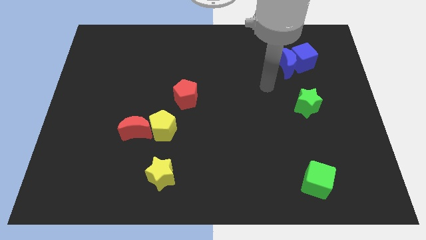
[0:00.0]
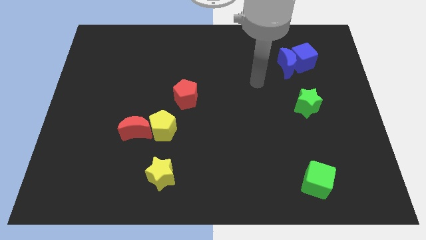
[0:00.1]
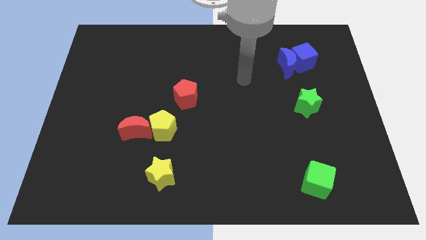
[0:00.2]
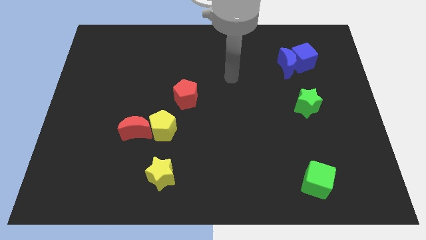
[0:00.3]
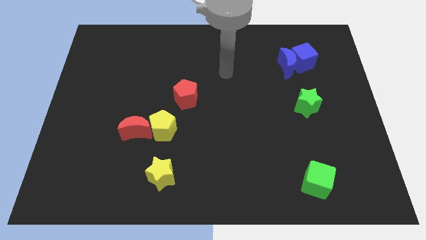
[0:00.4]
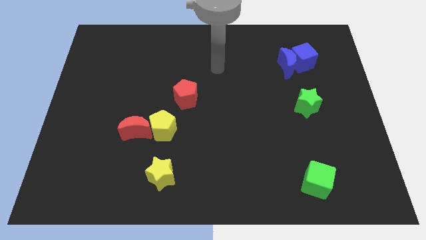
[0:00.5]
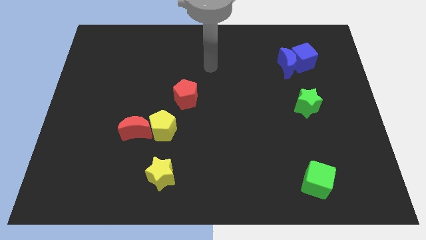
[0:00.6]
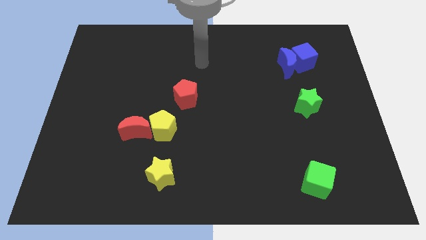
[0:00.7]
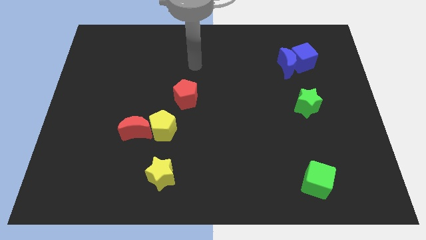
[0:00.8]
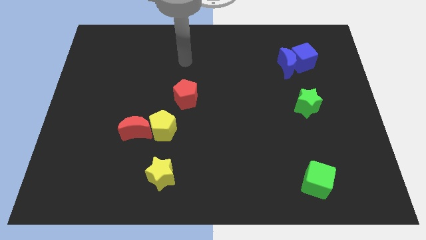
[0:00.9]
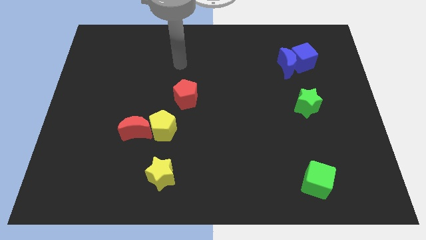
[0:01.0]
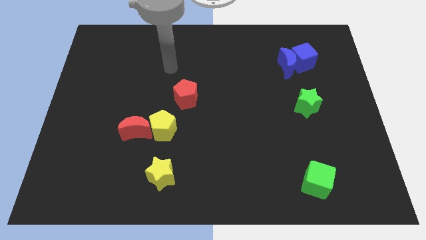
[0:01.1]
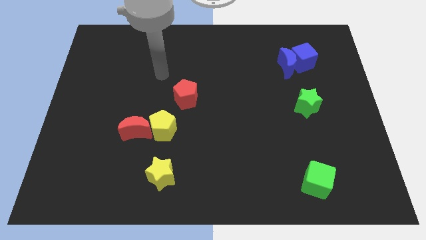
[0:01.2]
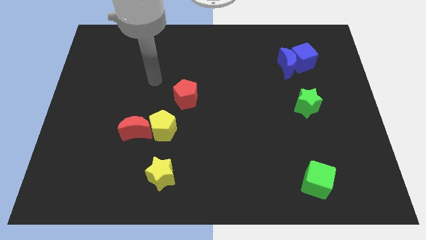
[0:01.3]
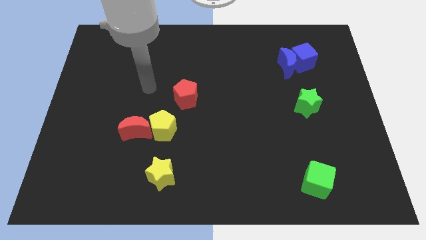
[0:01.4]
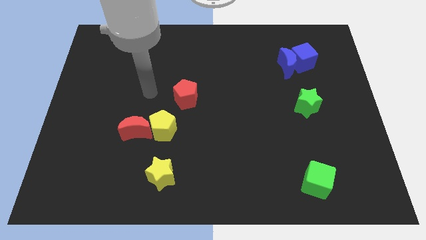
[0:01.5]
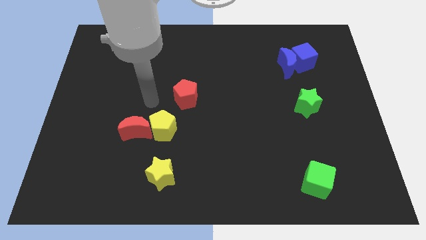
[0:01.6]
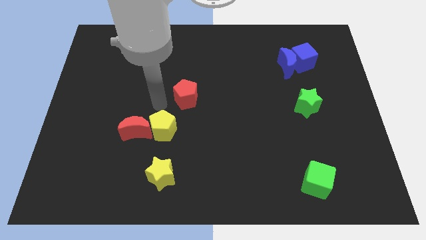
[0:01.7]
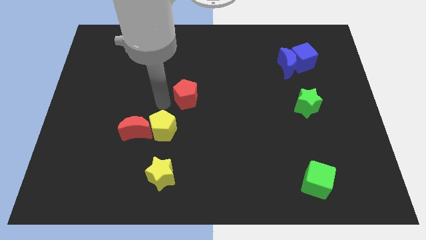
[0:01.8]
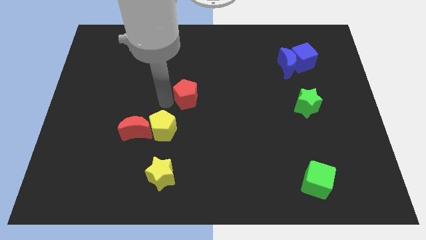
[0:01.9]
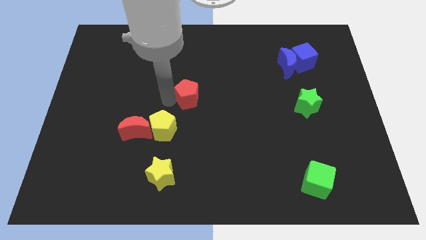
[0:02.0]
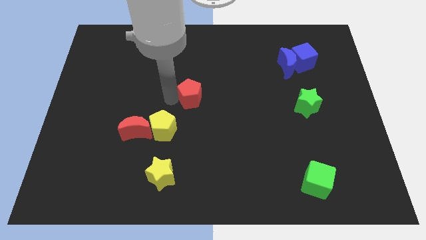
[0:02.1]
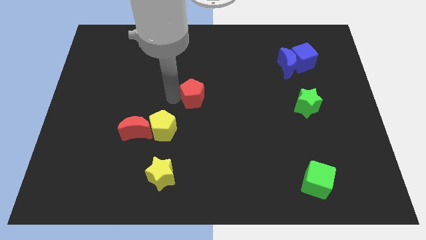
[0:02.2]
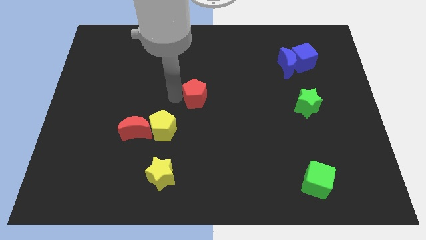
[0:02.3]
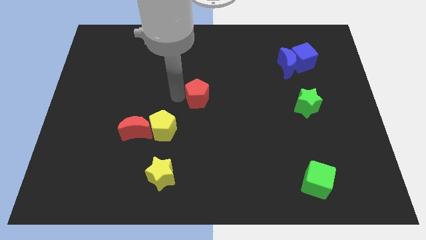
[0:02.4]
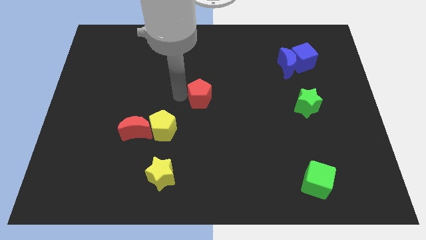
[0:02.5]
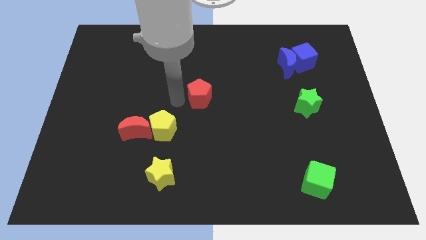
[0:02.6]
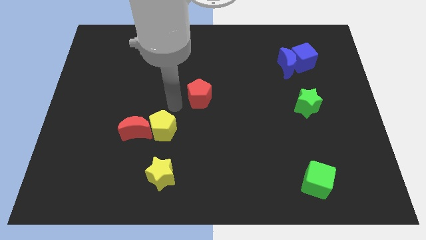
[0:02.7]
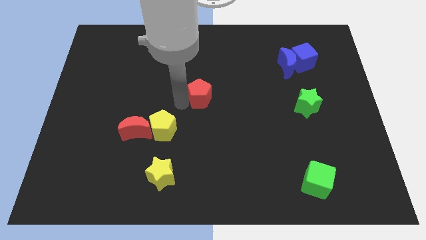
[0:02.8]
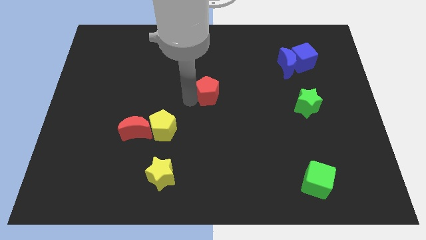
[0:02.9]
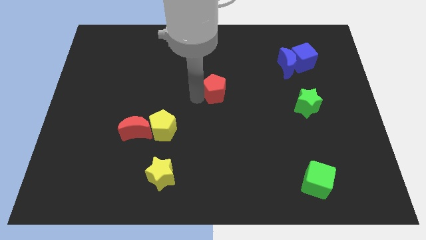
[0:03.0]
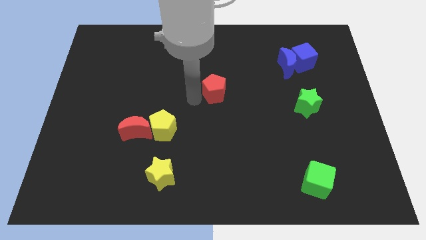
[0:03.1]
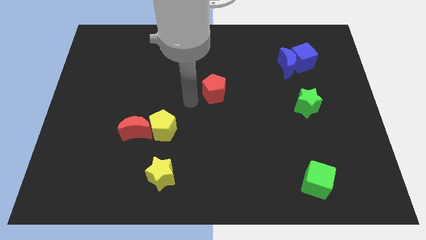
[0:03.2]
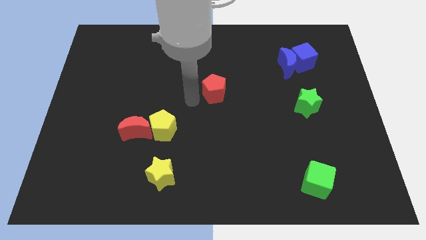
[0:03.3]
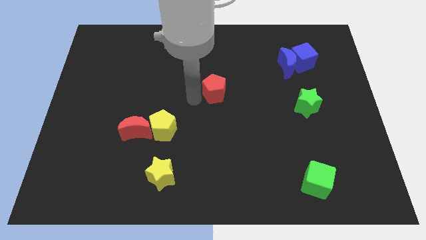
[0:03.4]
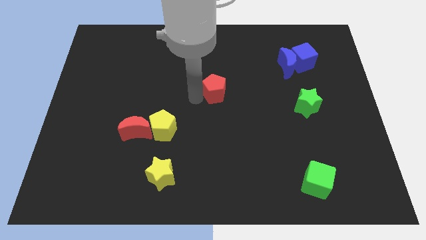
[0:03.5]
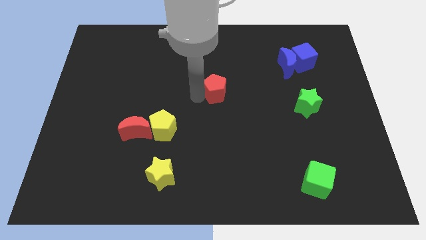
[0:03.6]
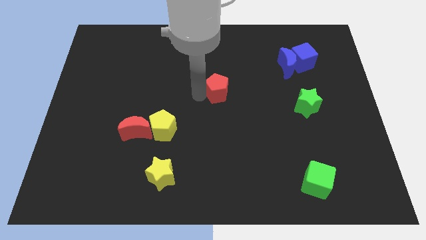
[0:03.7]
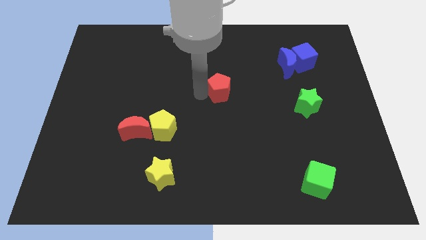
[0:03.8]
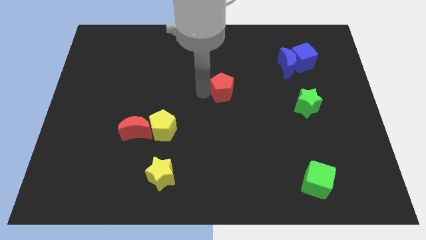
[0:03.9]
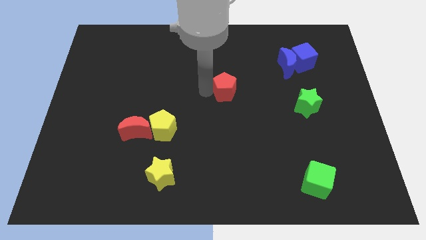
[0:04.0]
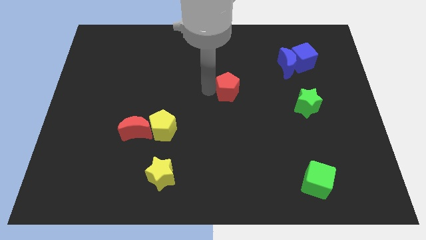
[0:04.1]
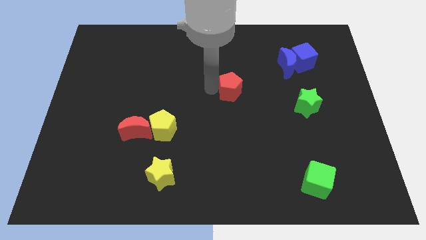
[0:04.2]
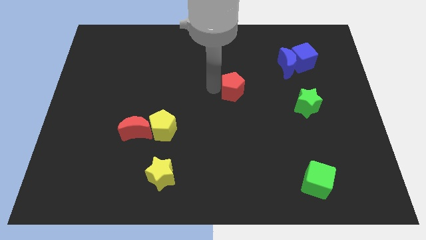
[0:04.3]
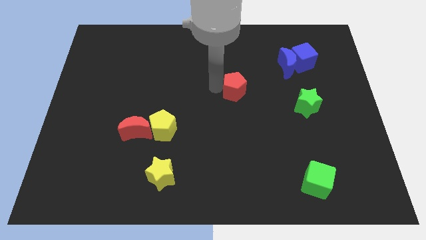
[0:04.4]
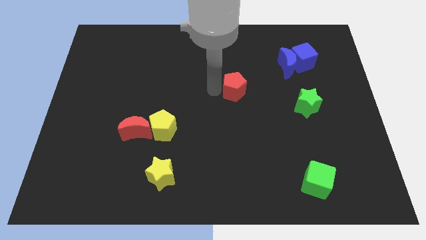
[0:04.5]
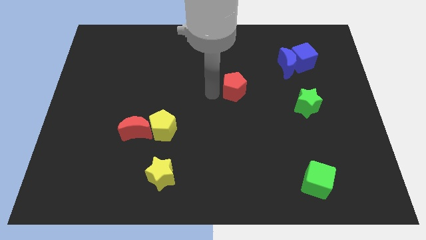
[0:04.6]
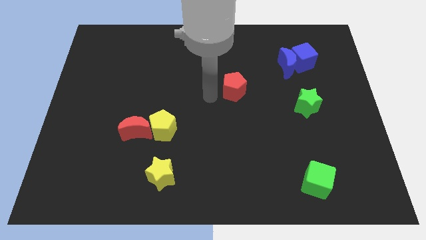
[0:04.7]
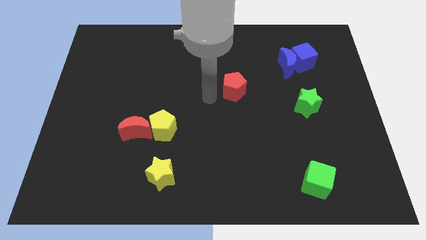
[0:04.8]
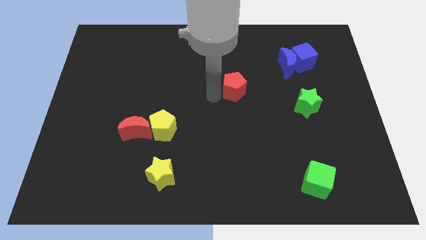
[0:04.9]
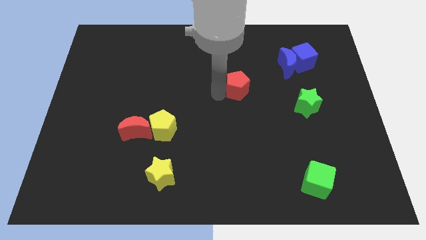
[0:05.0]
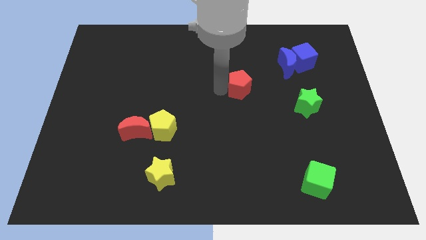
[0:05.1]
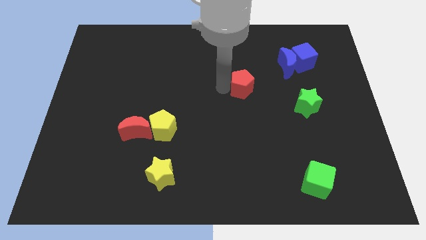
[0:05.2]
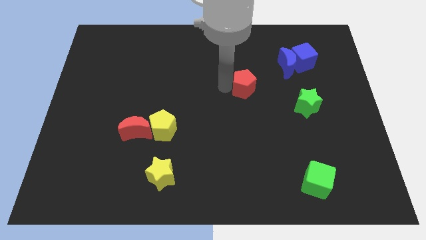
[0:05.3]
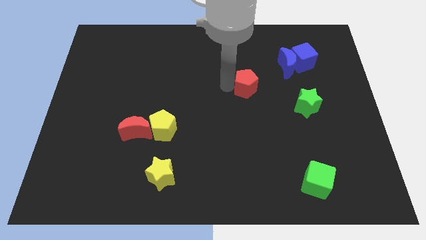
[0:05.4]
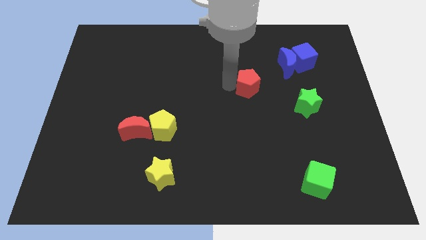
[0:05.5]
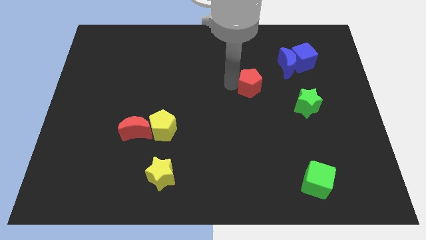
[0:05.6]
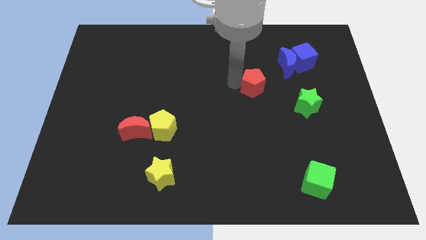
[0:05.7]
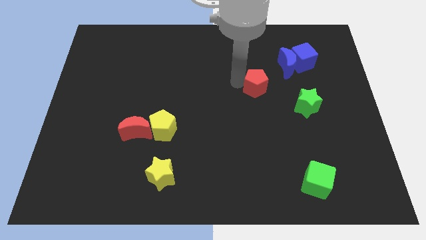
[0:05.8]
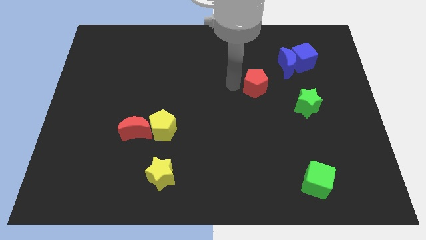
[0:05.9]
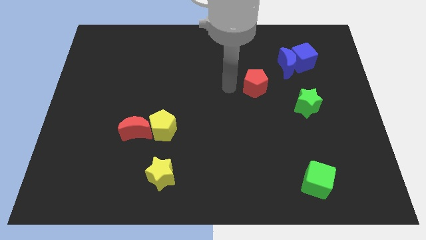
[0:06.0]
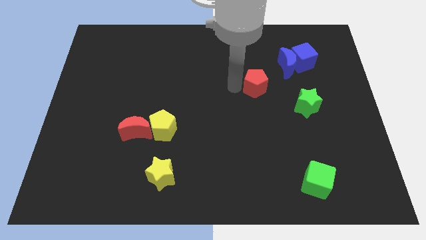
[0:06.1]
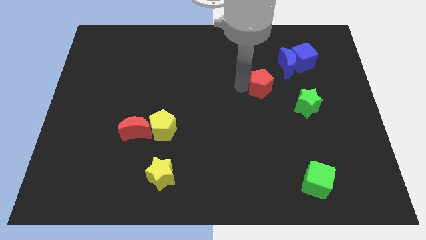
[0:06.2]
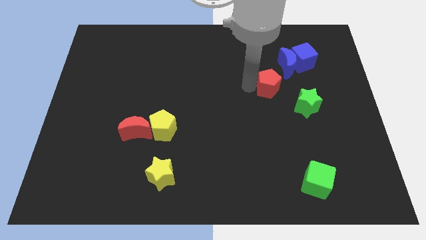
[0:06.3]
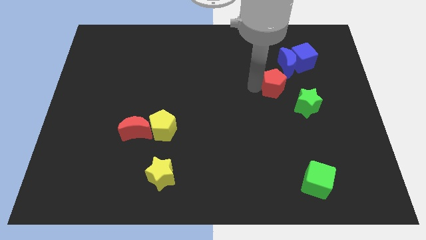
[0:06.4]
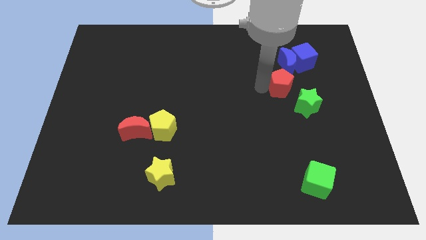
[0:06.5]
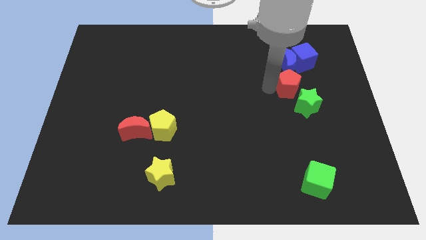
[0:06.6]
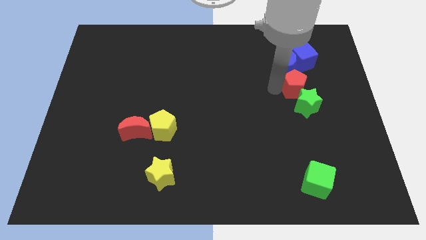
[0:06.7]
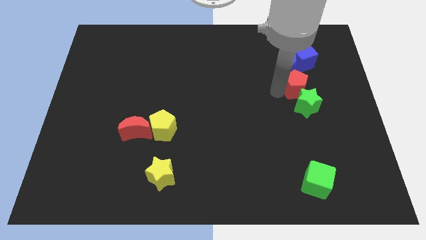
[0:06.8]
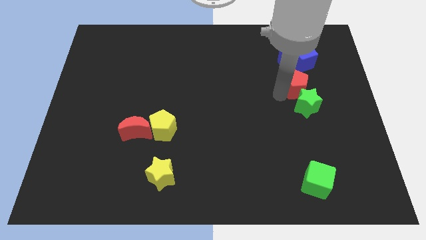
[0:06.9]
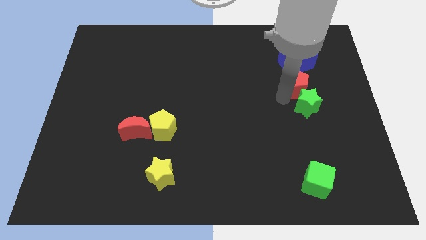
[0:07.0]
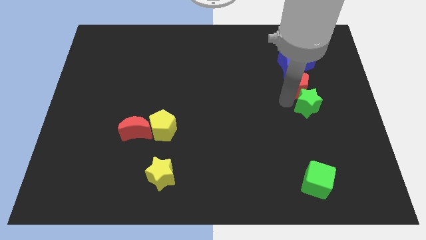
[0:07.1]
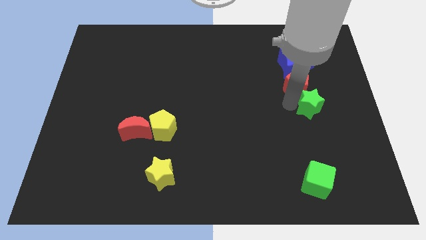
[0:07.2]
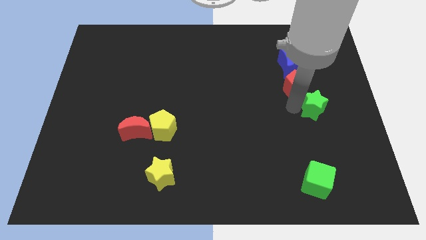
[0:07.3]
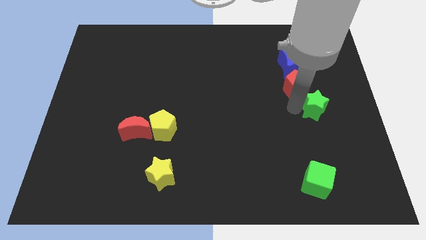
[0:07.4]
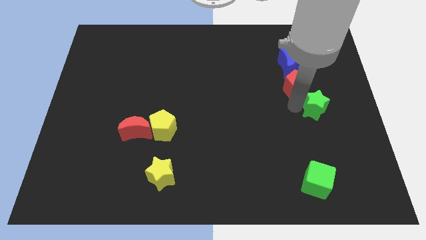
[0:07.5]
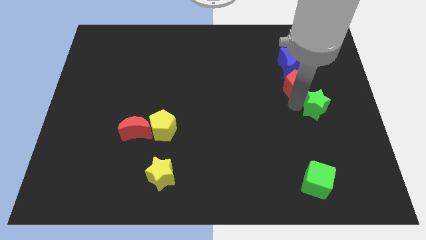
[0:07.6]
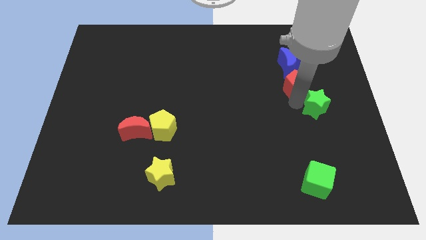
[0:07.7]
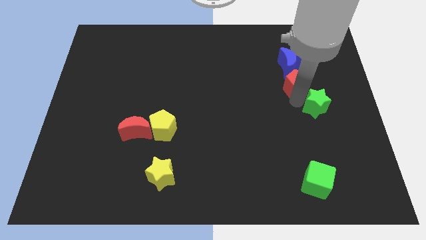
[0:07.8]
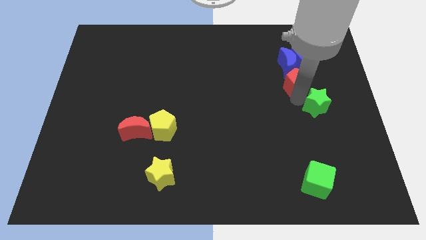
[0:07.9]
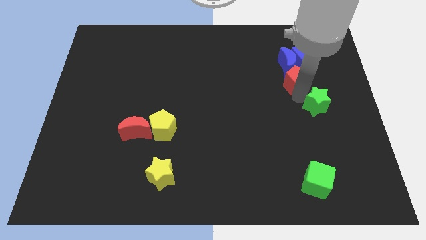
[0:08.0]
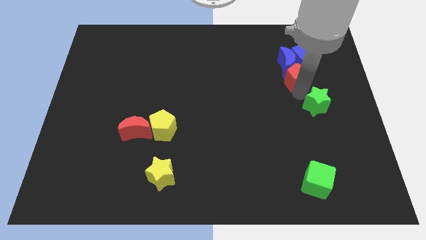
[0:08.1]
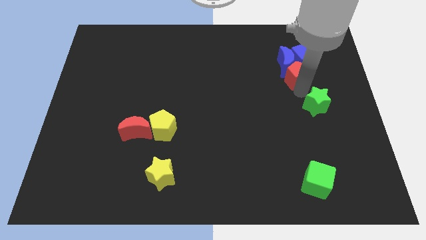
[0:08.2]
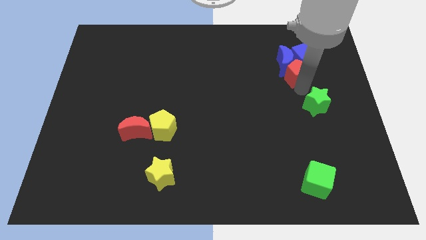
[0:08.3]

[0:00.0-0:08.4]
slide the red pentagon close to the blue cube
